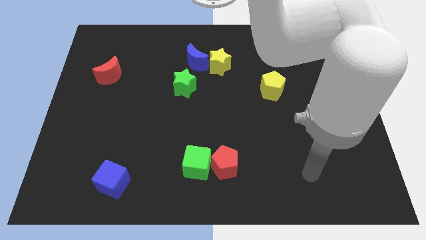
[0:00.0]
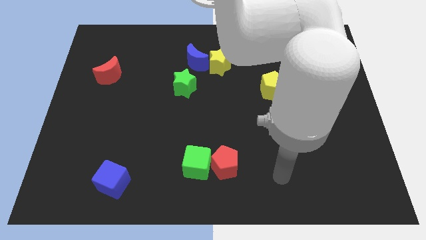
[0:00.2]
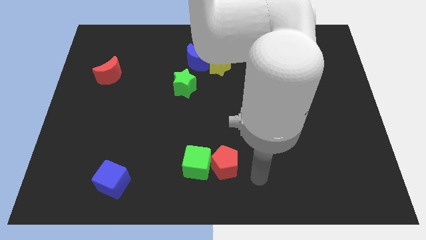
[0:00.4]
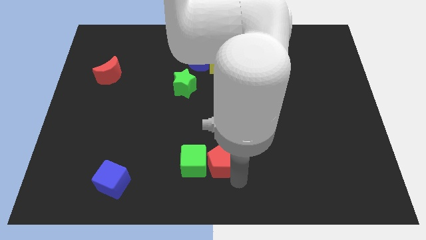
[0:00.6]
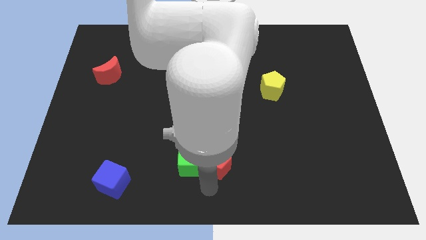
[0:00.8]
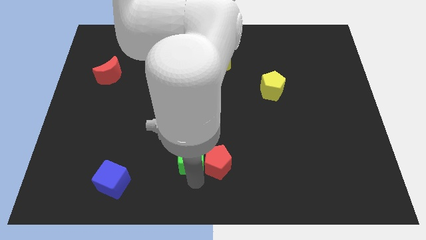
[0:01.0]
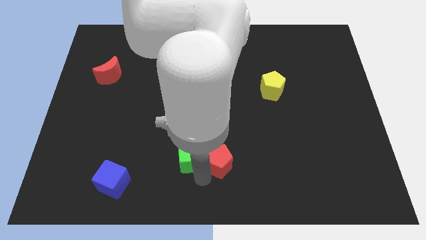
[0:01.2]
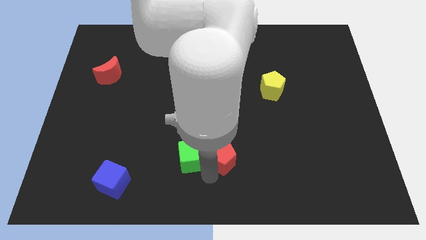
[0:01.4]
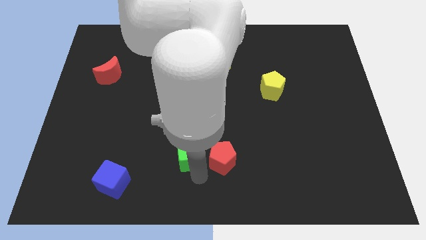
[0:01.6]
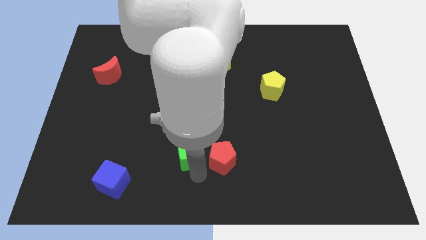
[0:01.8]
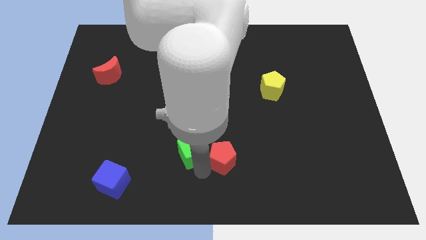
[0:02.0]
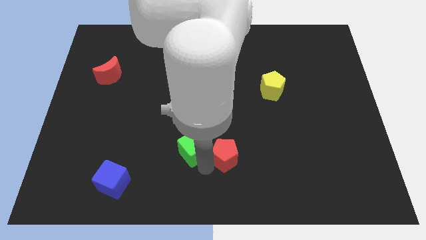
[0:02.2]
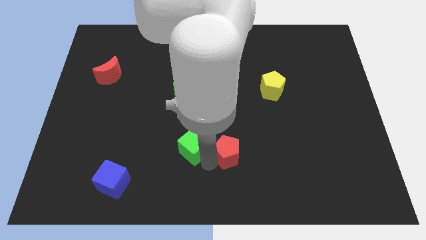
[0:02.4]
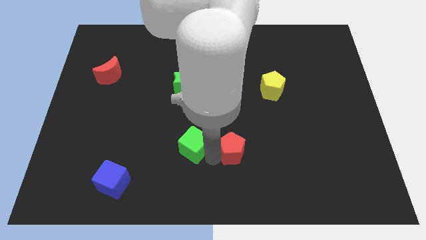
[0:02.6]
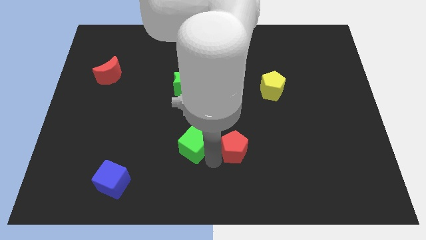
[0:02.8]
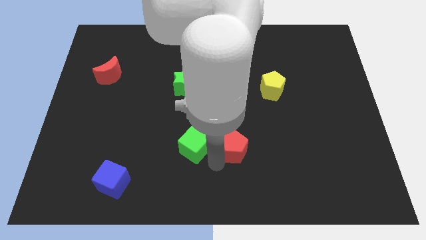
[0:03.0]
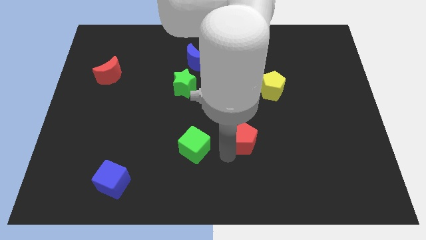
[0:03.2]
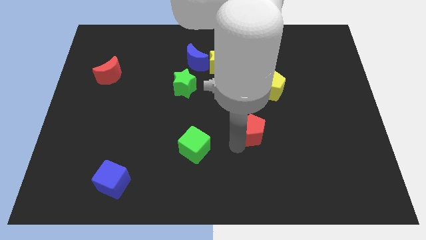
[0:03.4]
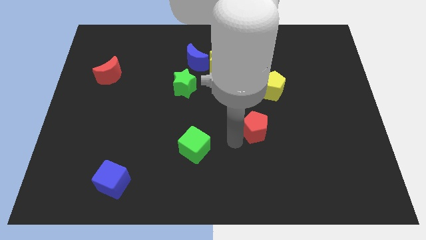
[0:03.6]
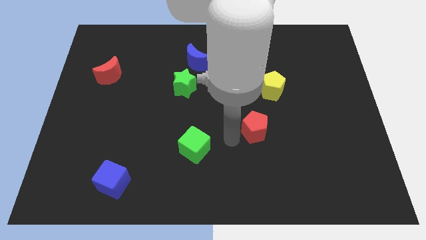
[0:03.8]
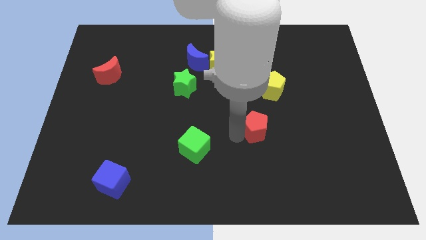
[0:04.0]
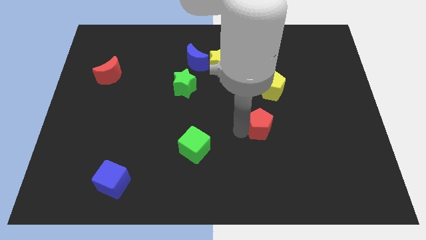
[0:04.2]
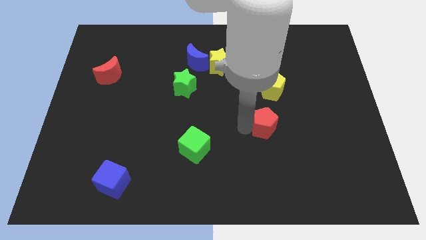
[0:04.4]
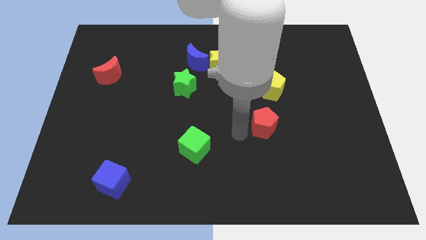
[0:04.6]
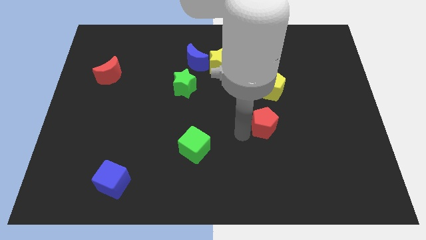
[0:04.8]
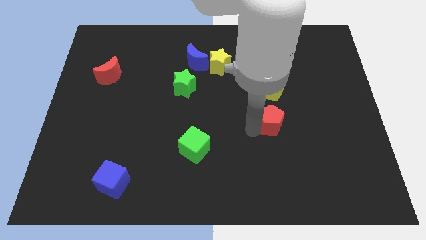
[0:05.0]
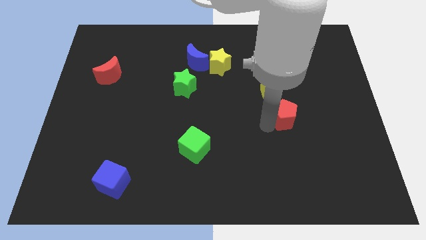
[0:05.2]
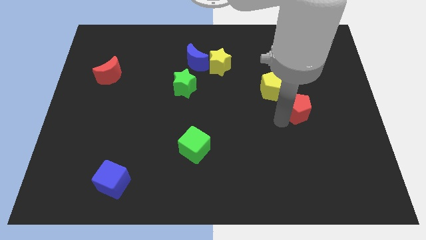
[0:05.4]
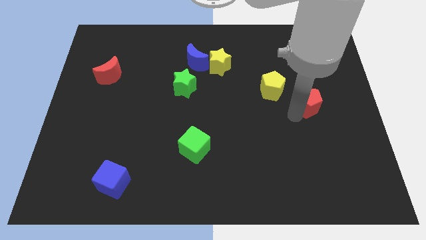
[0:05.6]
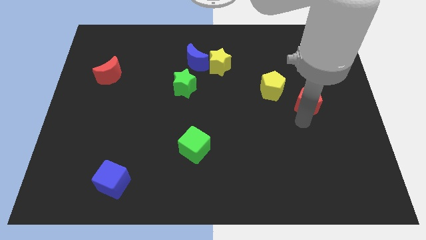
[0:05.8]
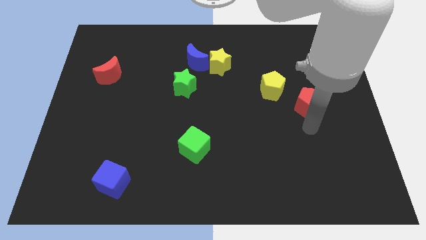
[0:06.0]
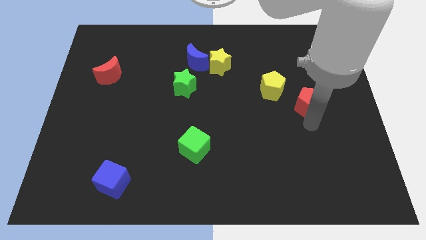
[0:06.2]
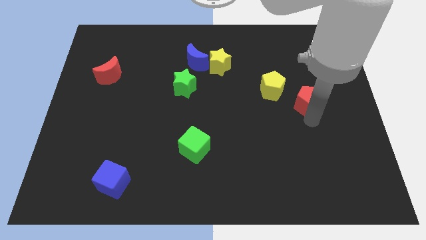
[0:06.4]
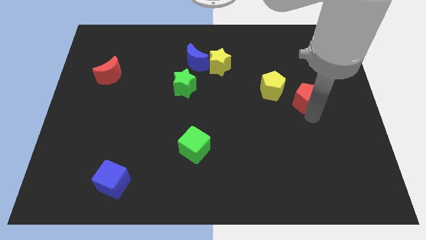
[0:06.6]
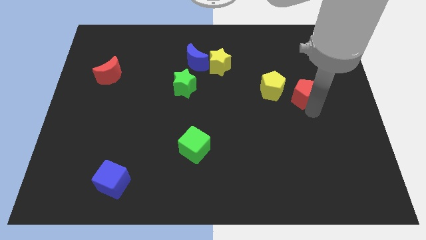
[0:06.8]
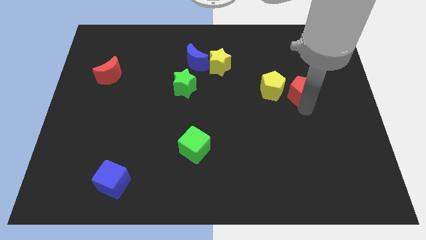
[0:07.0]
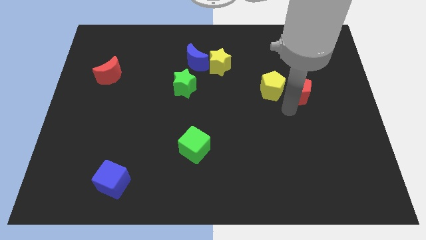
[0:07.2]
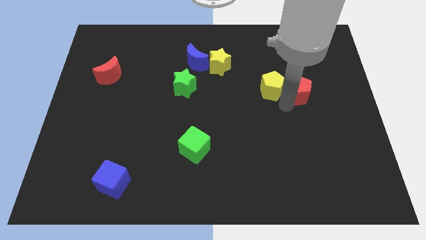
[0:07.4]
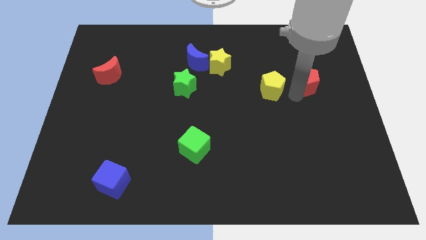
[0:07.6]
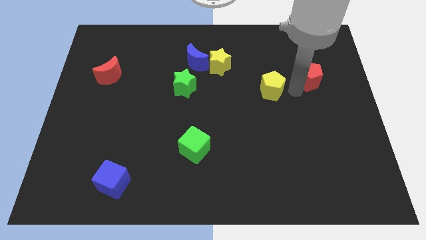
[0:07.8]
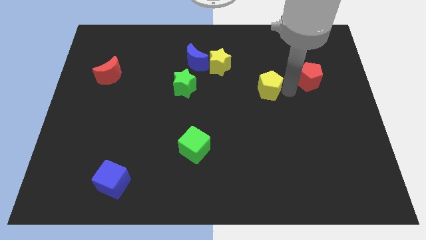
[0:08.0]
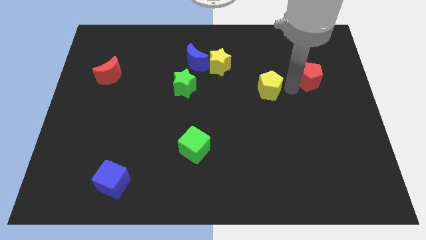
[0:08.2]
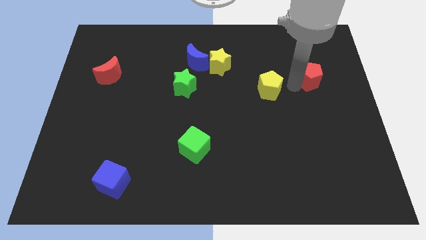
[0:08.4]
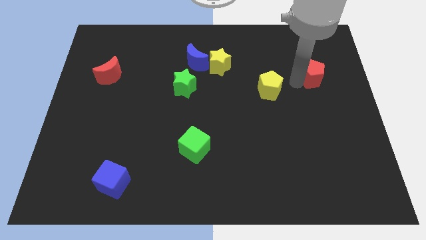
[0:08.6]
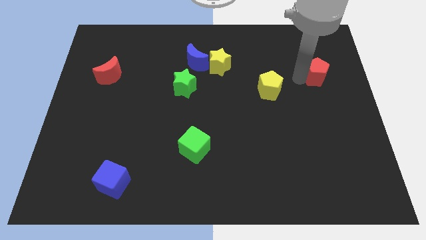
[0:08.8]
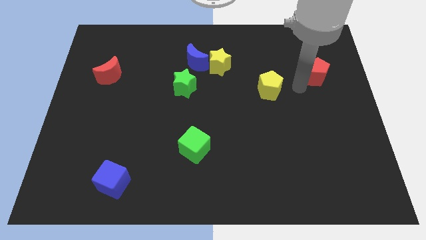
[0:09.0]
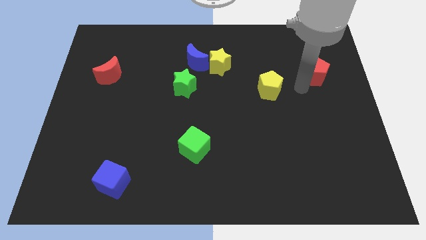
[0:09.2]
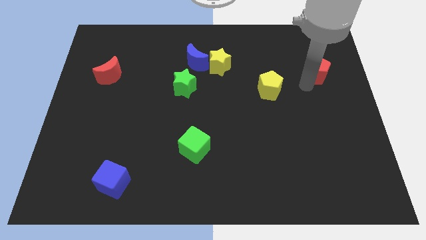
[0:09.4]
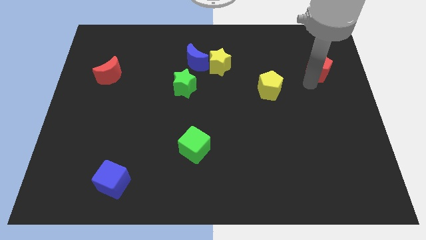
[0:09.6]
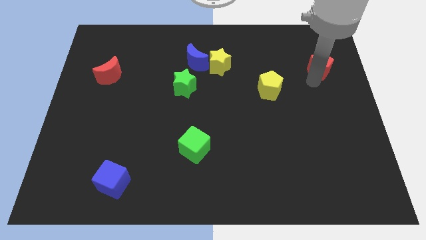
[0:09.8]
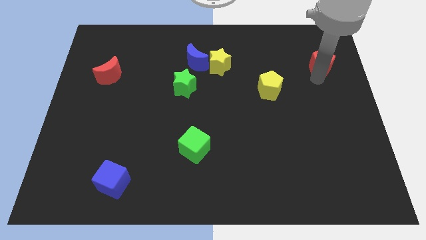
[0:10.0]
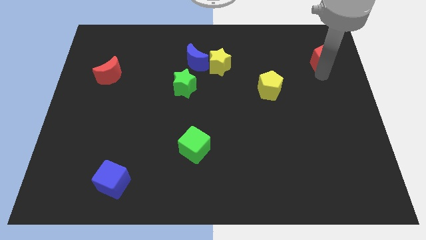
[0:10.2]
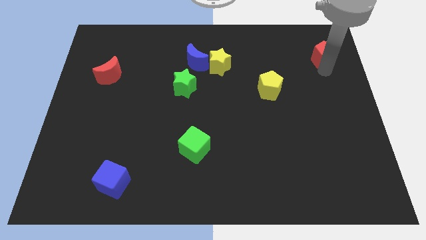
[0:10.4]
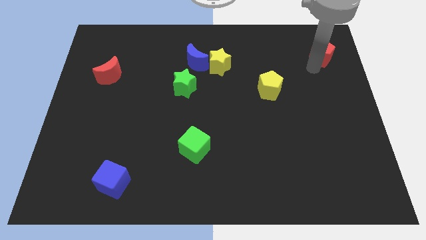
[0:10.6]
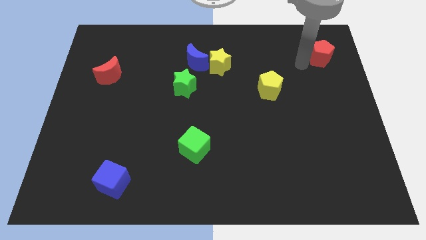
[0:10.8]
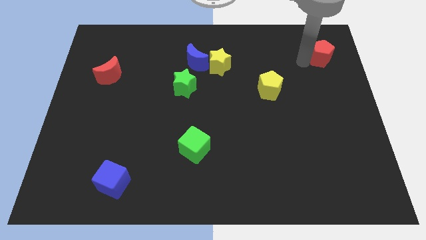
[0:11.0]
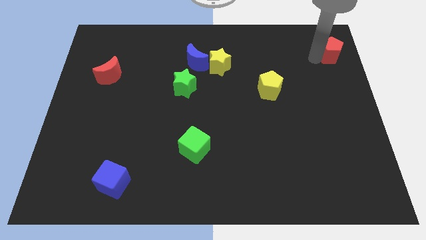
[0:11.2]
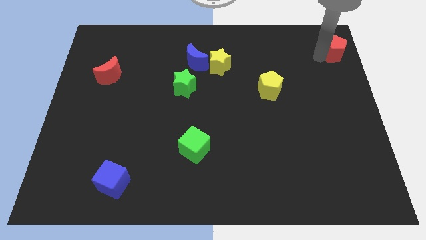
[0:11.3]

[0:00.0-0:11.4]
move the red pentagon to the top right of the board

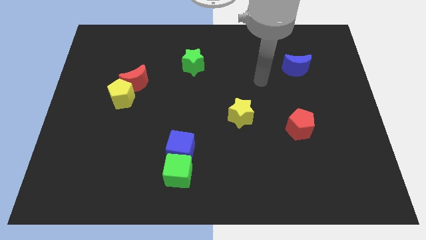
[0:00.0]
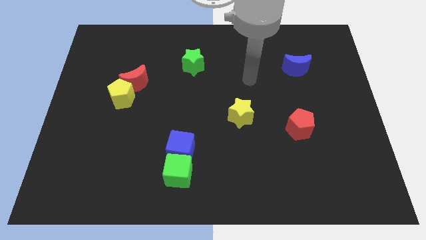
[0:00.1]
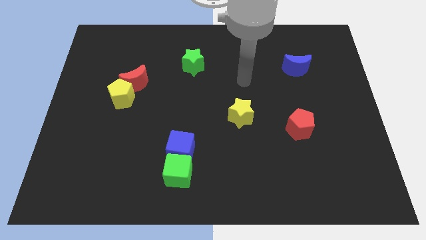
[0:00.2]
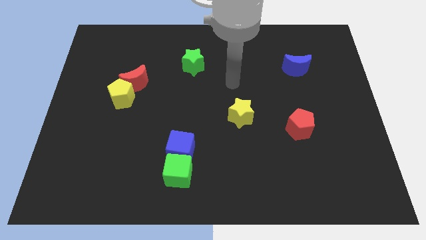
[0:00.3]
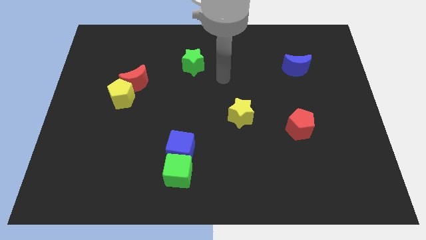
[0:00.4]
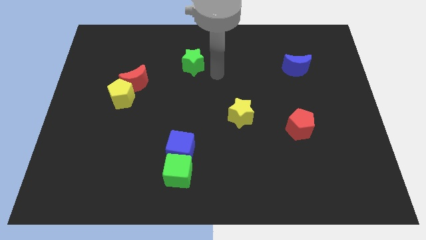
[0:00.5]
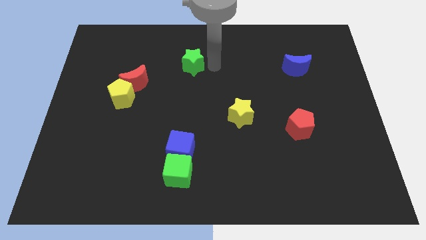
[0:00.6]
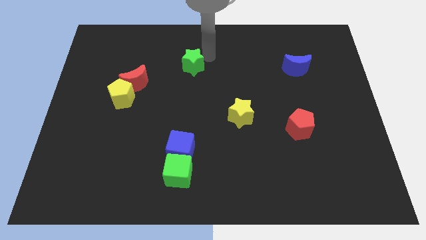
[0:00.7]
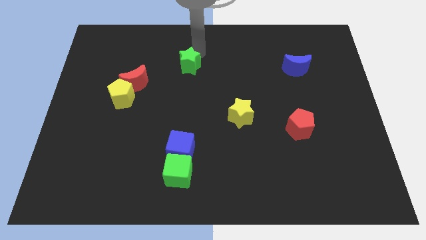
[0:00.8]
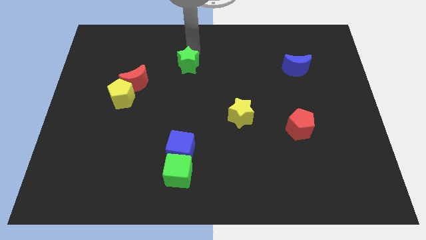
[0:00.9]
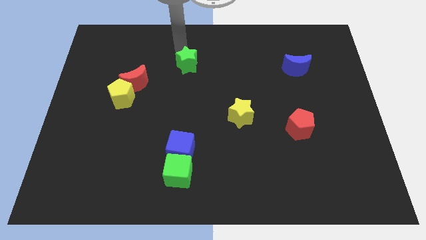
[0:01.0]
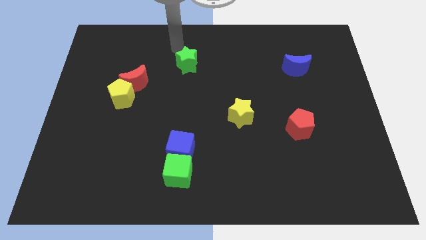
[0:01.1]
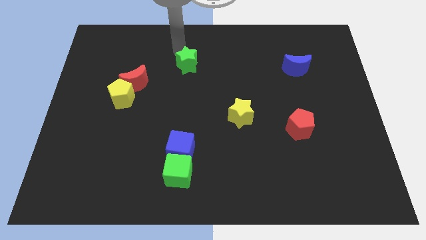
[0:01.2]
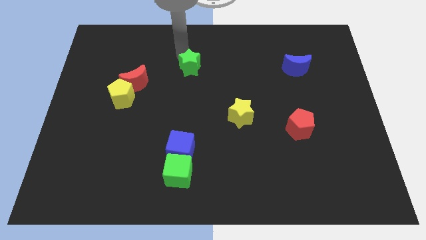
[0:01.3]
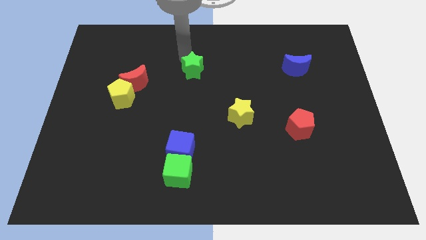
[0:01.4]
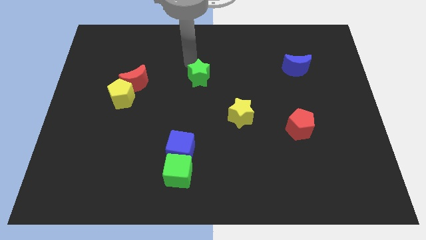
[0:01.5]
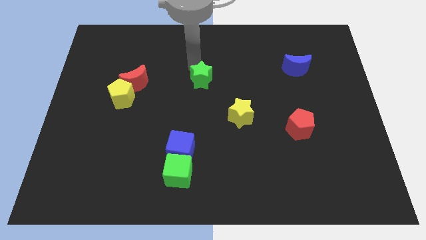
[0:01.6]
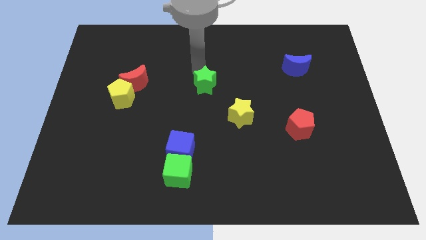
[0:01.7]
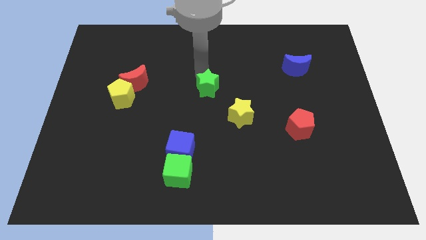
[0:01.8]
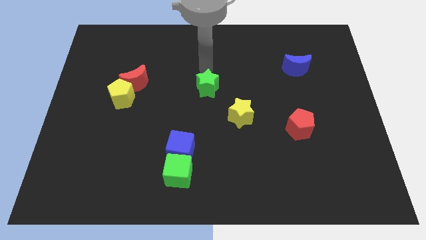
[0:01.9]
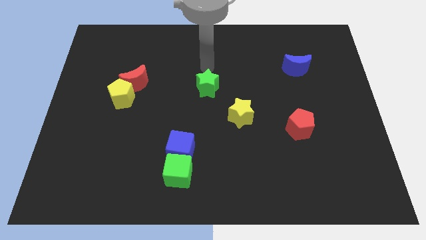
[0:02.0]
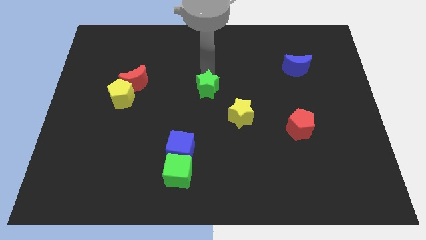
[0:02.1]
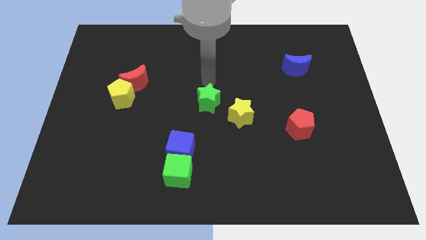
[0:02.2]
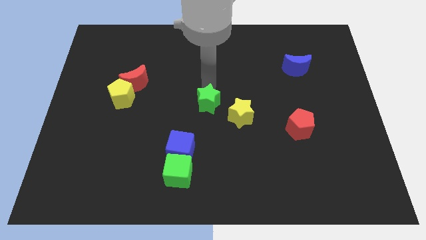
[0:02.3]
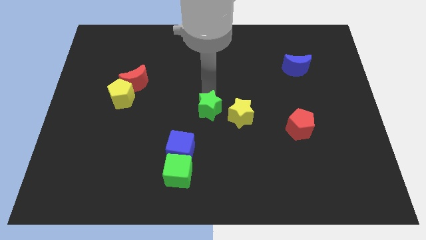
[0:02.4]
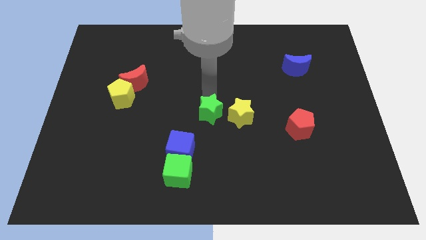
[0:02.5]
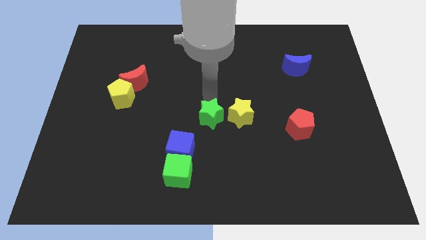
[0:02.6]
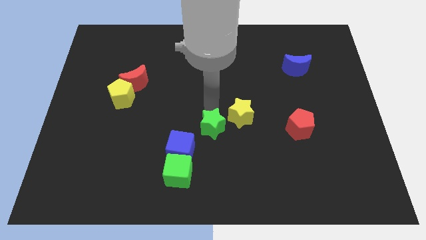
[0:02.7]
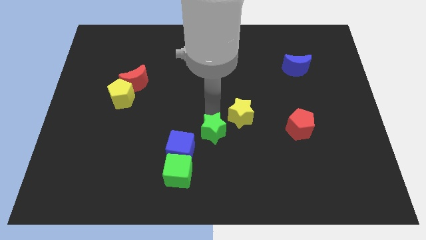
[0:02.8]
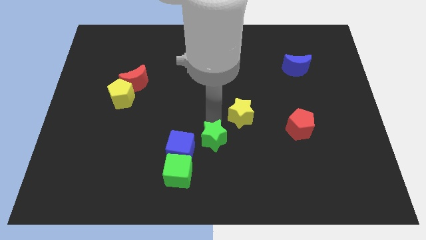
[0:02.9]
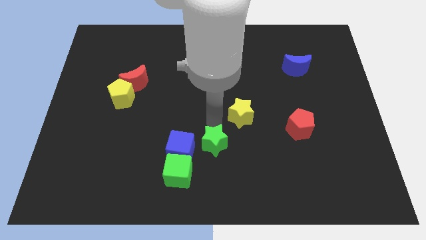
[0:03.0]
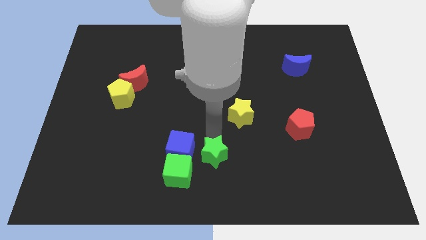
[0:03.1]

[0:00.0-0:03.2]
move the green star to the bottom side
